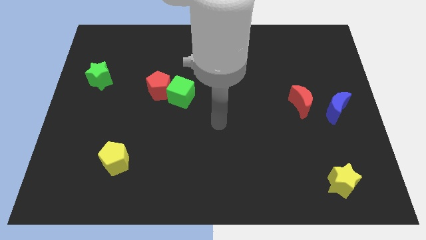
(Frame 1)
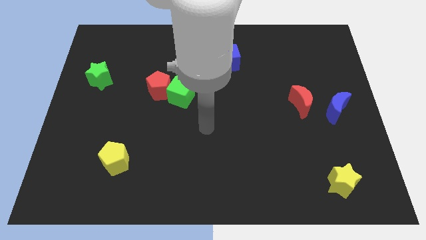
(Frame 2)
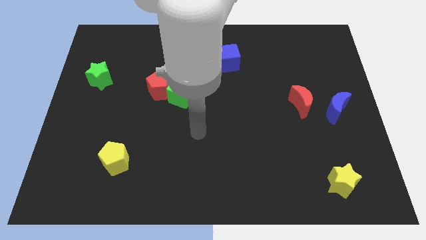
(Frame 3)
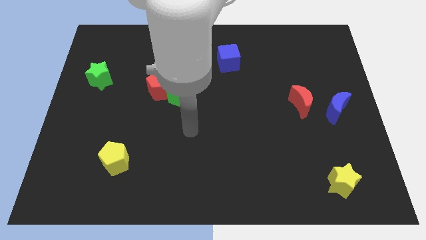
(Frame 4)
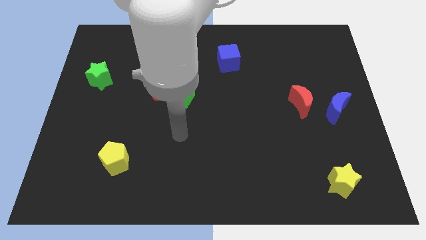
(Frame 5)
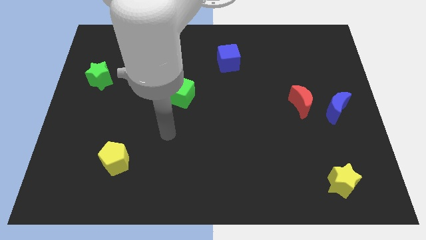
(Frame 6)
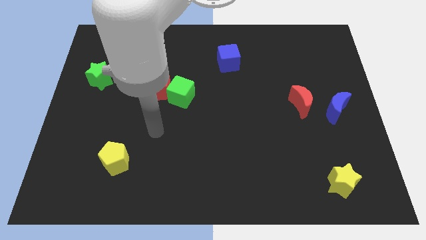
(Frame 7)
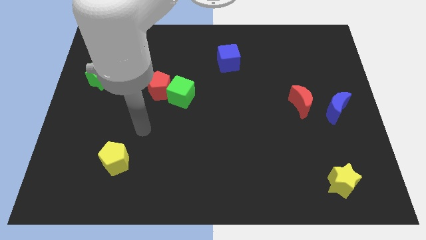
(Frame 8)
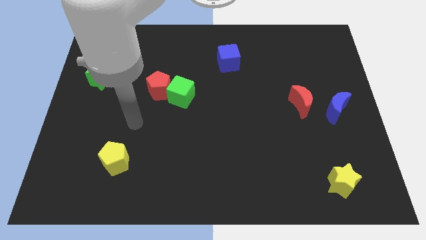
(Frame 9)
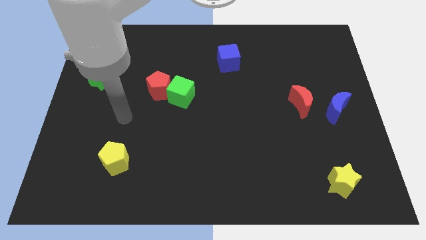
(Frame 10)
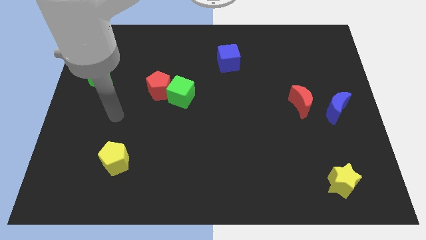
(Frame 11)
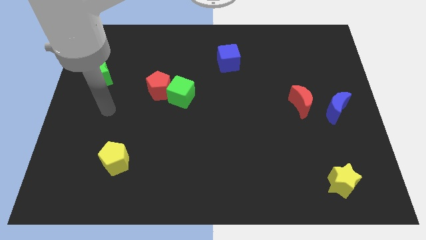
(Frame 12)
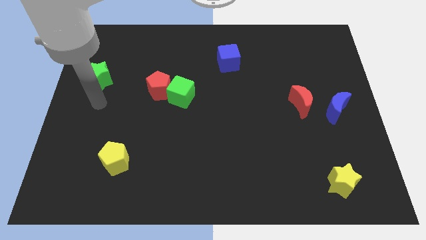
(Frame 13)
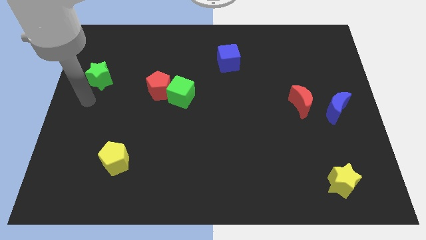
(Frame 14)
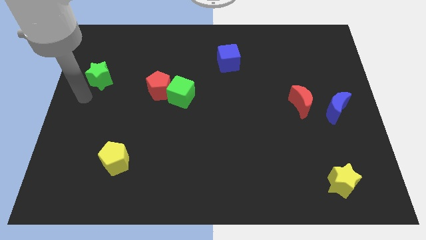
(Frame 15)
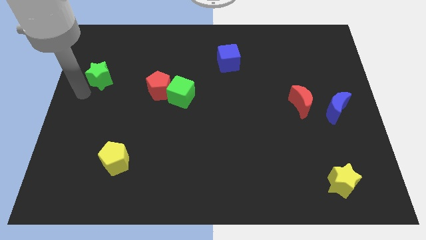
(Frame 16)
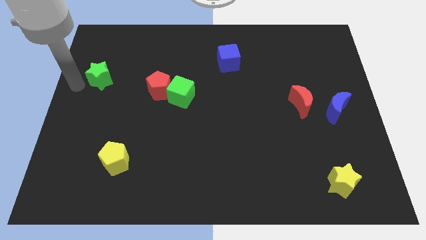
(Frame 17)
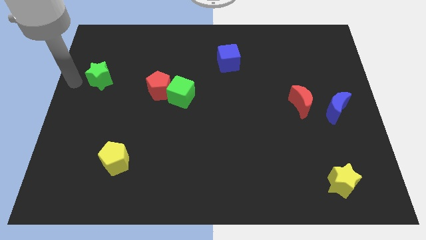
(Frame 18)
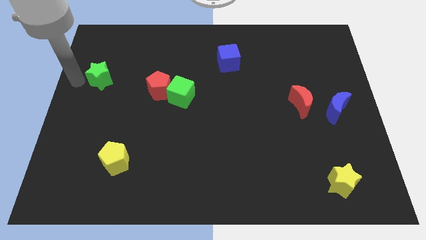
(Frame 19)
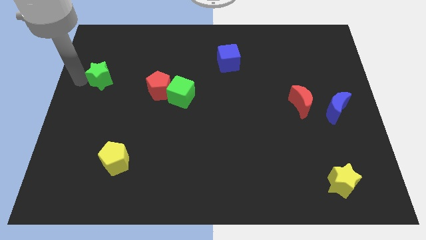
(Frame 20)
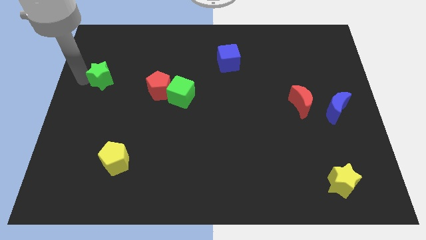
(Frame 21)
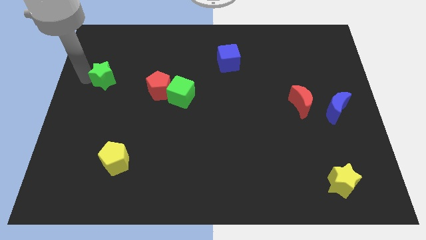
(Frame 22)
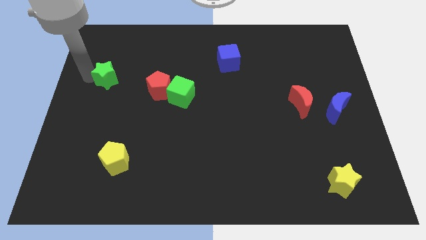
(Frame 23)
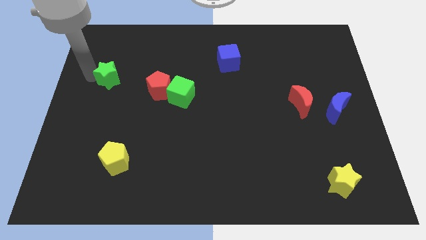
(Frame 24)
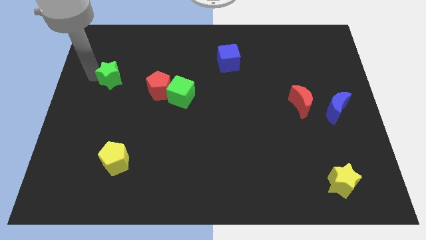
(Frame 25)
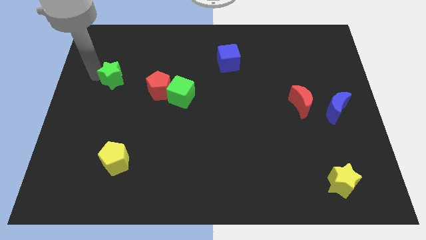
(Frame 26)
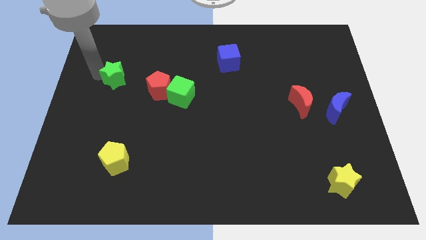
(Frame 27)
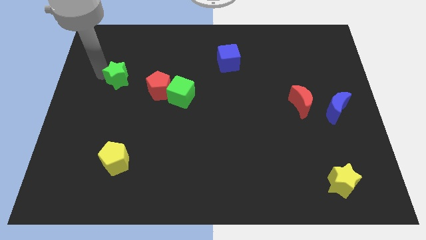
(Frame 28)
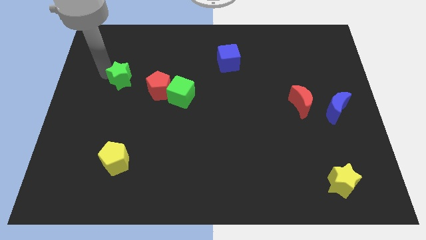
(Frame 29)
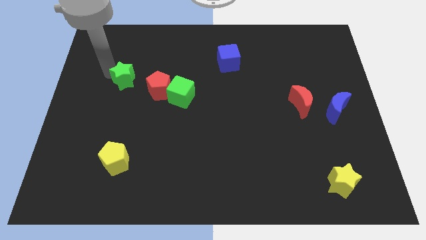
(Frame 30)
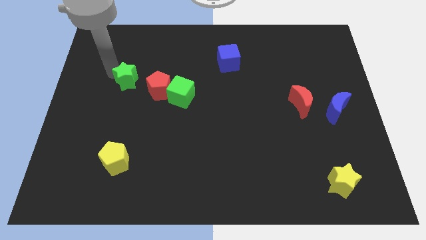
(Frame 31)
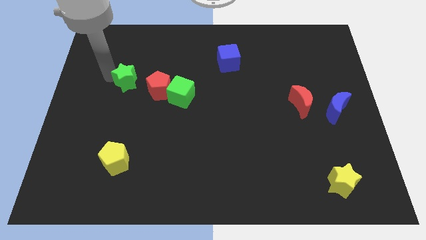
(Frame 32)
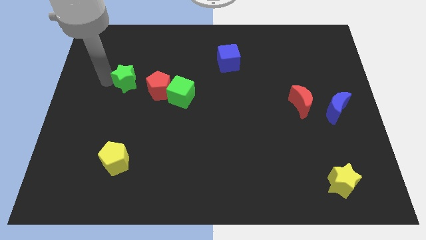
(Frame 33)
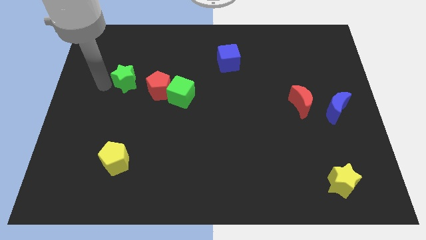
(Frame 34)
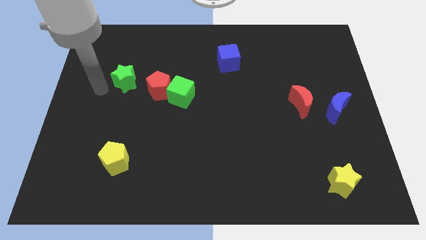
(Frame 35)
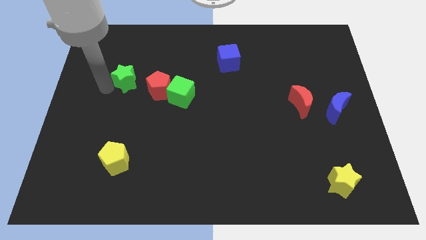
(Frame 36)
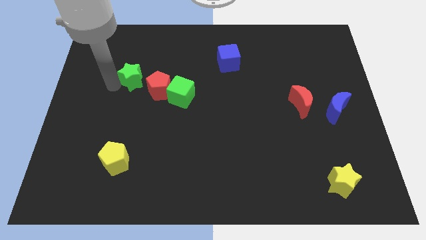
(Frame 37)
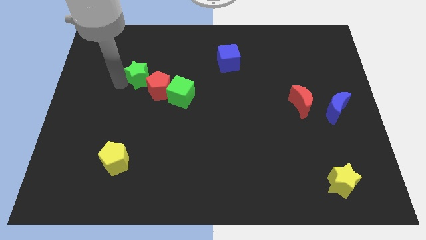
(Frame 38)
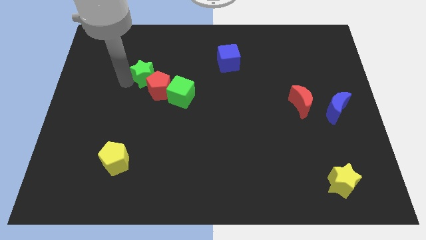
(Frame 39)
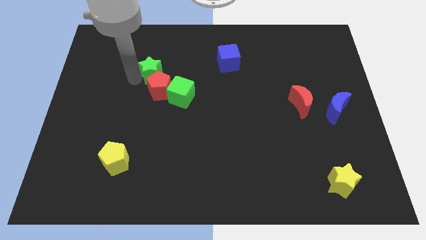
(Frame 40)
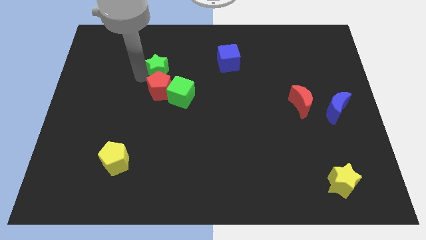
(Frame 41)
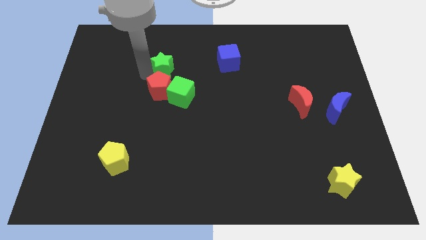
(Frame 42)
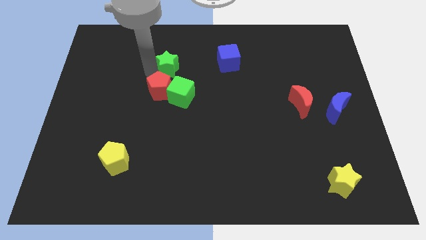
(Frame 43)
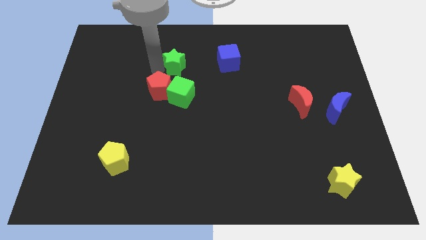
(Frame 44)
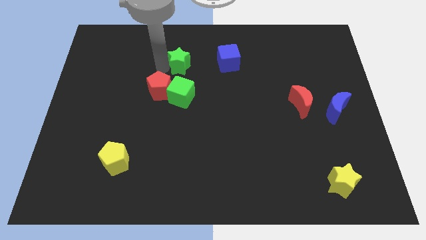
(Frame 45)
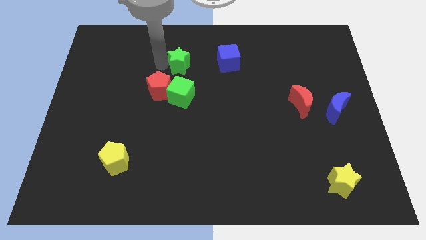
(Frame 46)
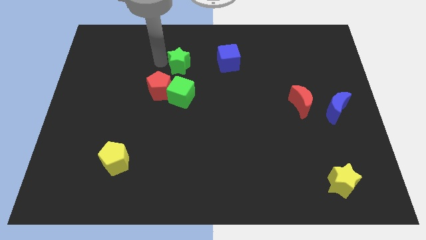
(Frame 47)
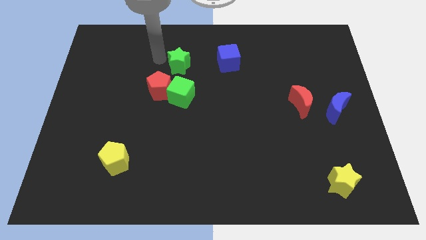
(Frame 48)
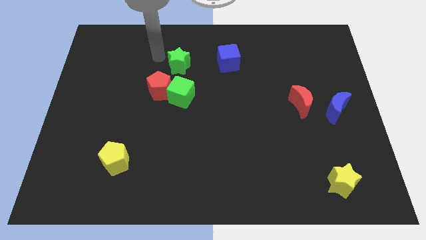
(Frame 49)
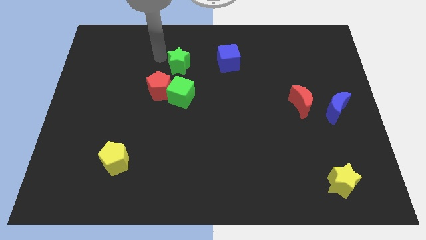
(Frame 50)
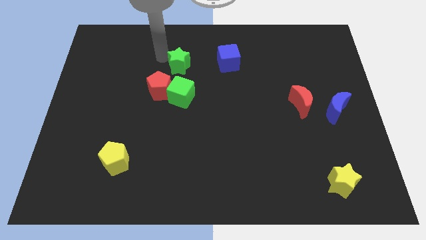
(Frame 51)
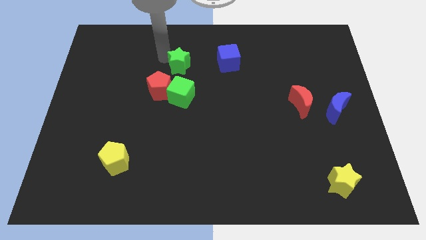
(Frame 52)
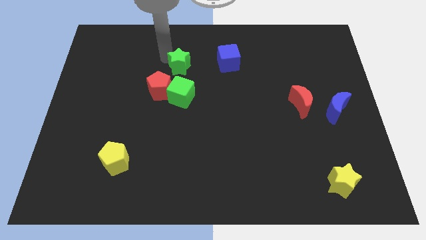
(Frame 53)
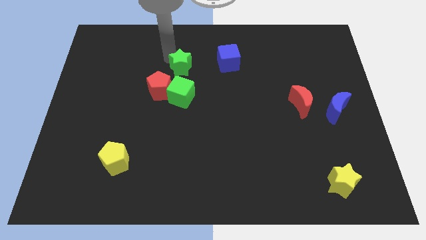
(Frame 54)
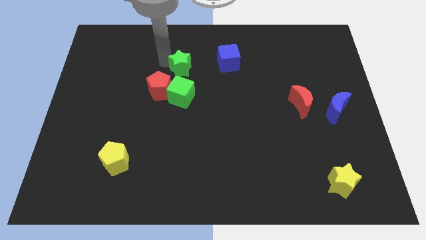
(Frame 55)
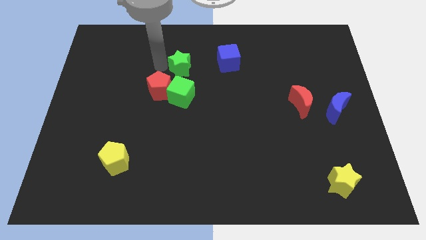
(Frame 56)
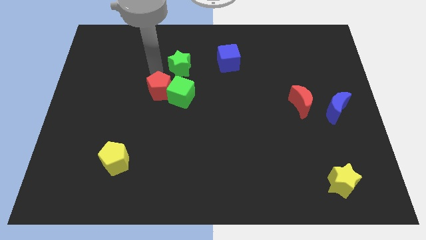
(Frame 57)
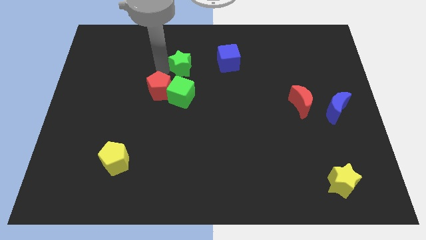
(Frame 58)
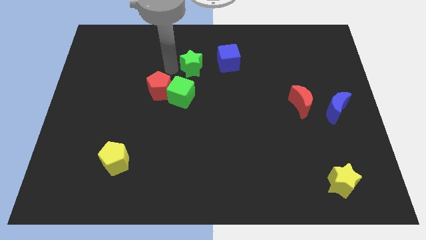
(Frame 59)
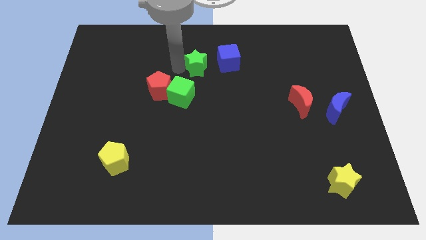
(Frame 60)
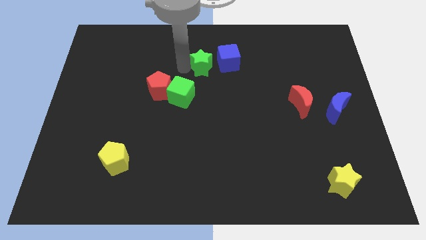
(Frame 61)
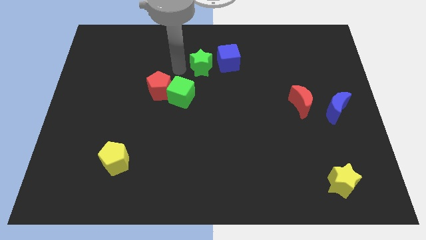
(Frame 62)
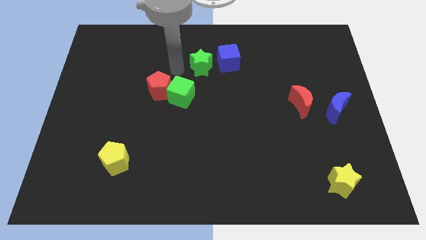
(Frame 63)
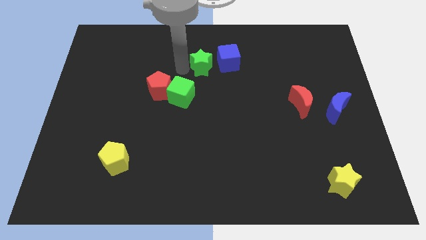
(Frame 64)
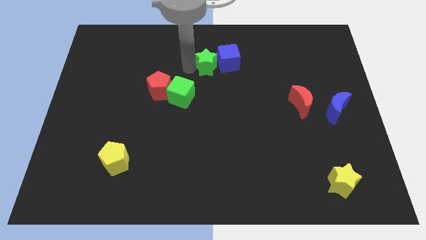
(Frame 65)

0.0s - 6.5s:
slide the green star close to the blue cube

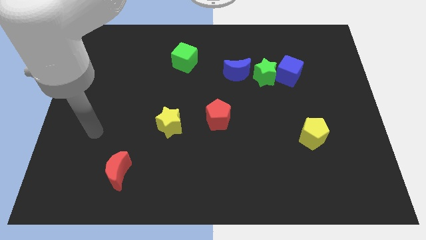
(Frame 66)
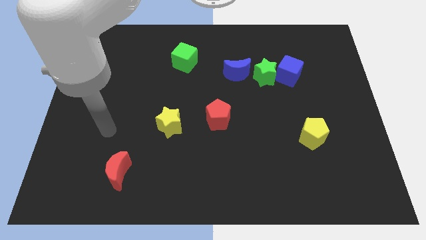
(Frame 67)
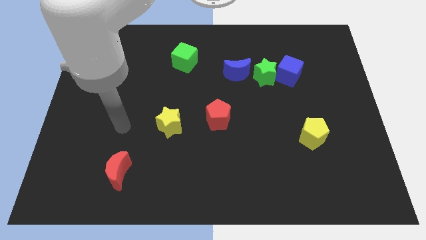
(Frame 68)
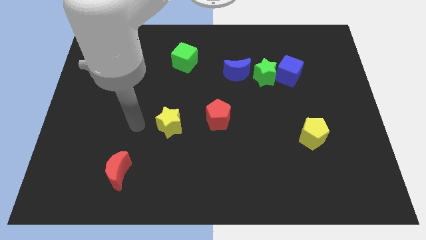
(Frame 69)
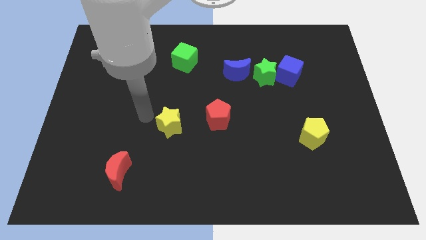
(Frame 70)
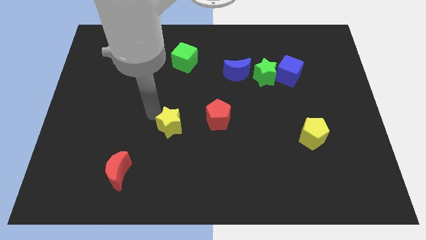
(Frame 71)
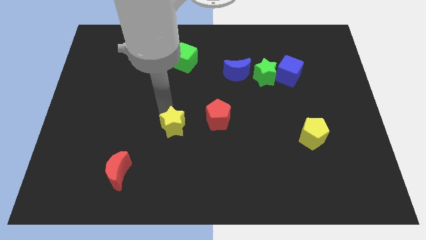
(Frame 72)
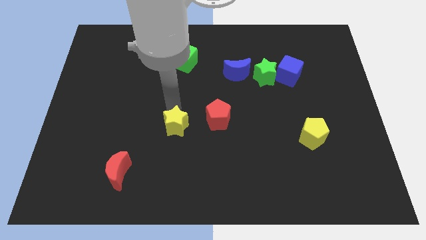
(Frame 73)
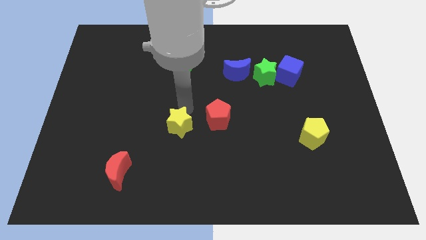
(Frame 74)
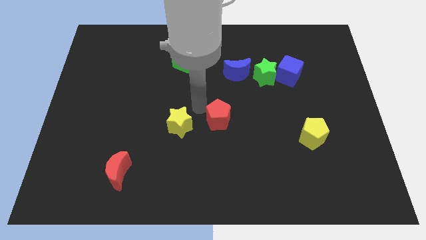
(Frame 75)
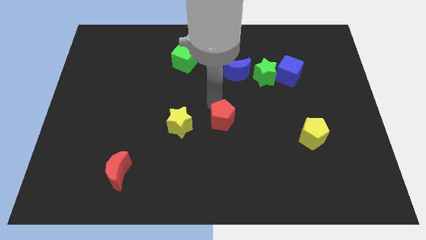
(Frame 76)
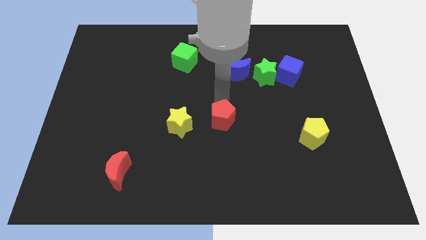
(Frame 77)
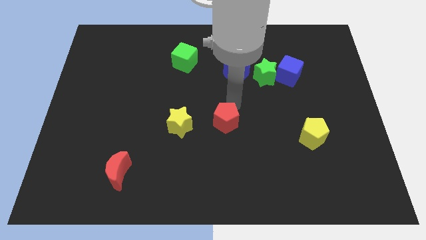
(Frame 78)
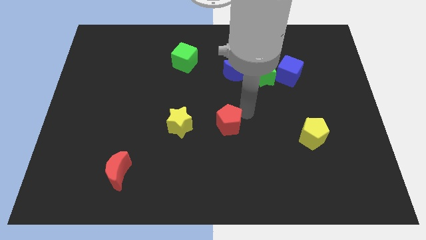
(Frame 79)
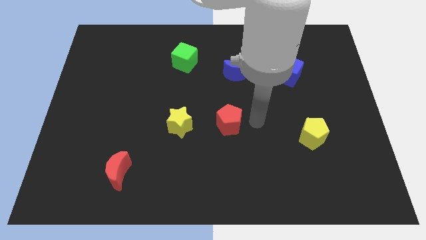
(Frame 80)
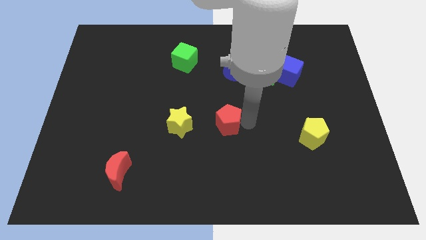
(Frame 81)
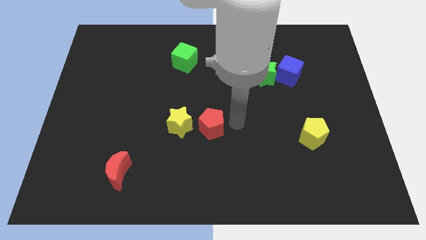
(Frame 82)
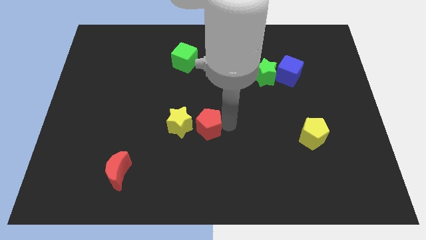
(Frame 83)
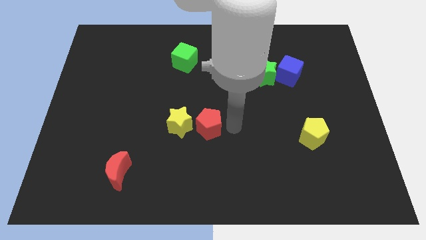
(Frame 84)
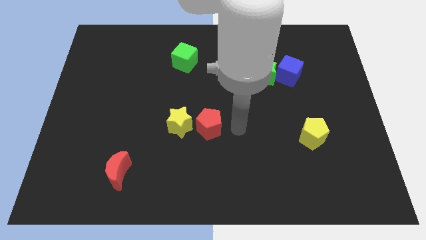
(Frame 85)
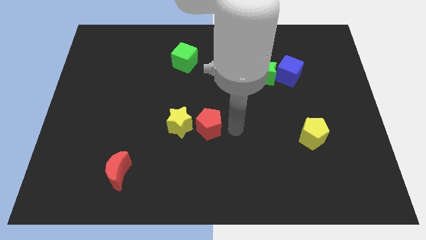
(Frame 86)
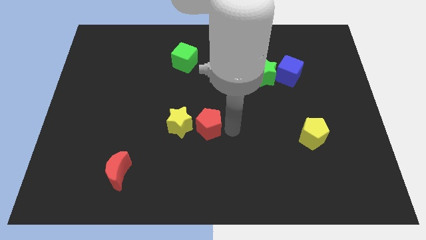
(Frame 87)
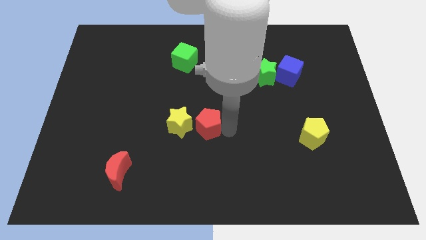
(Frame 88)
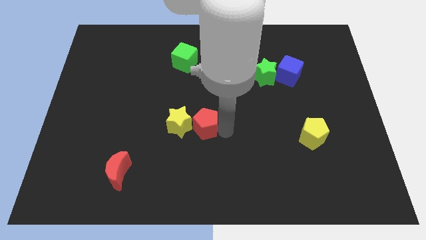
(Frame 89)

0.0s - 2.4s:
move the red pentagon to the yellow star
